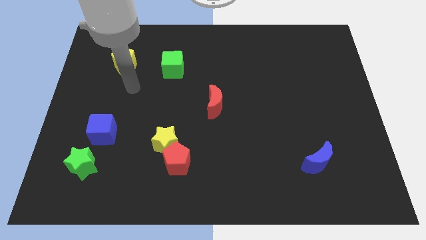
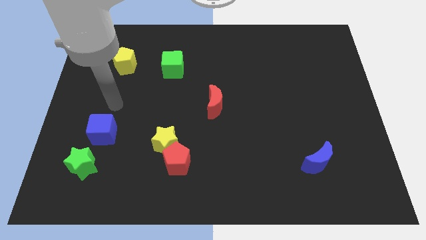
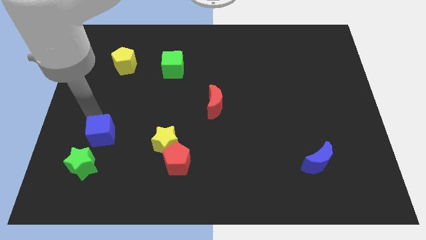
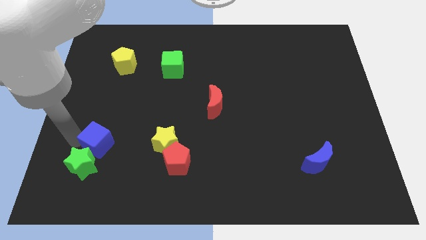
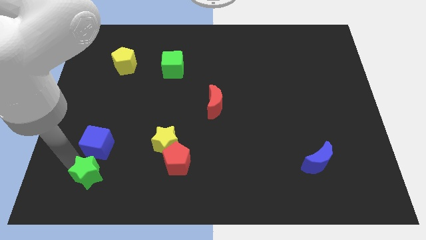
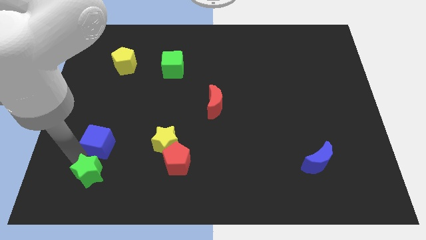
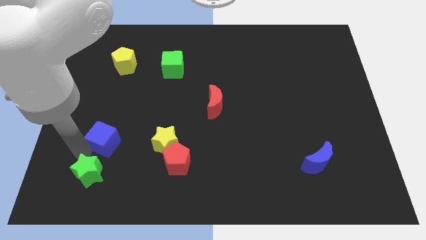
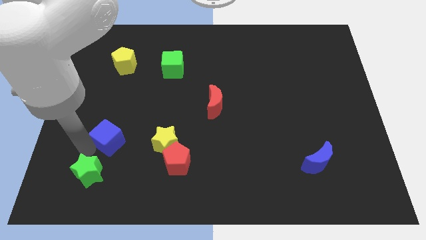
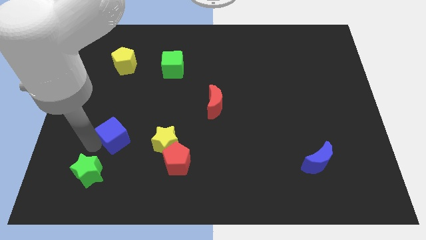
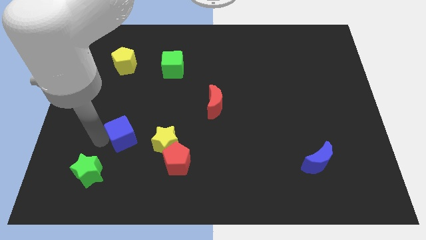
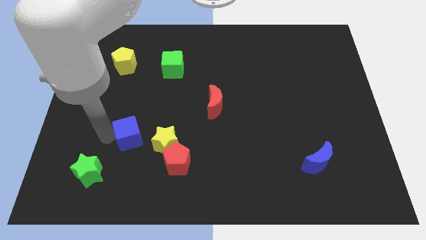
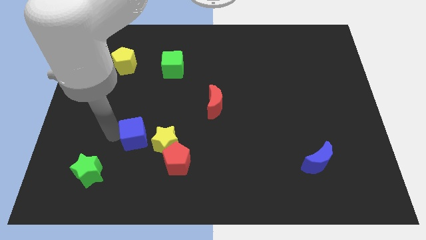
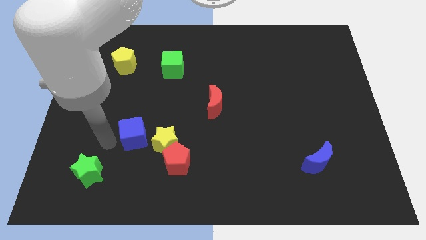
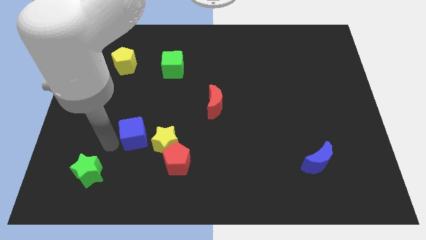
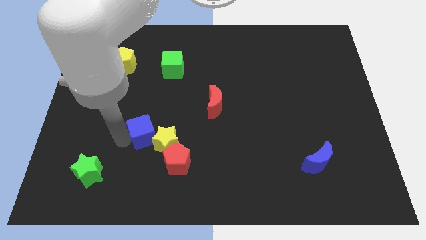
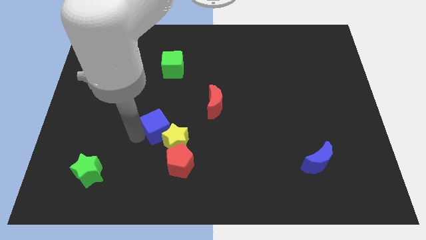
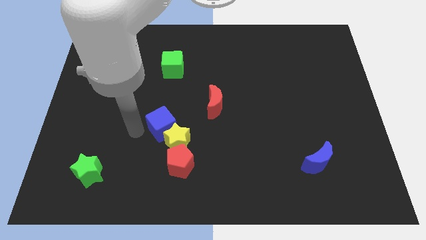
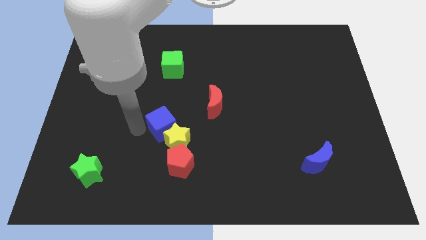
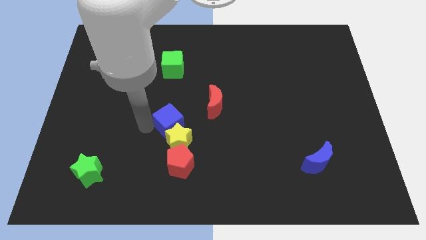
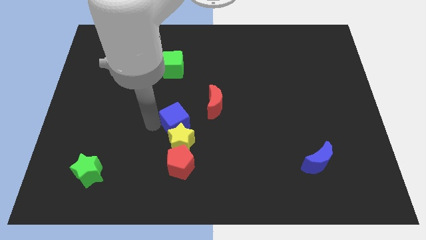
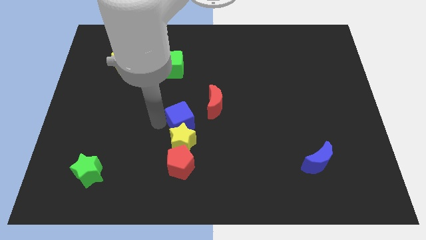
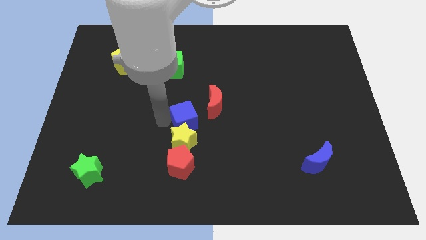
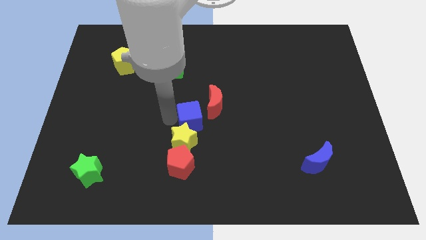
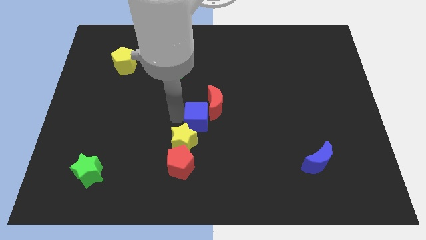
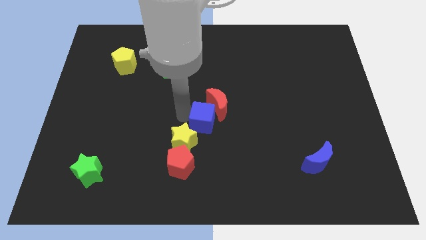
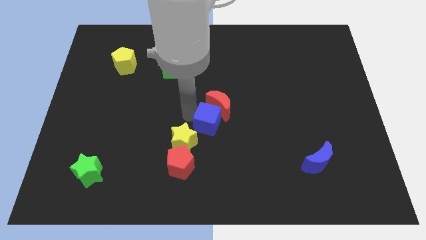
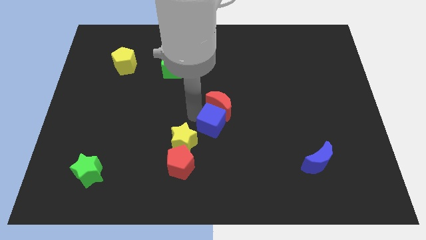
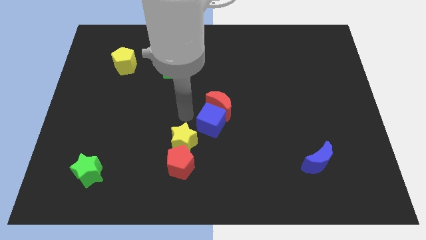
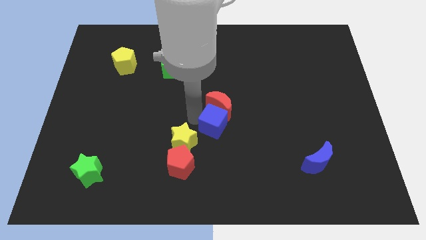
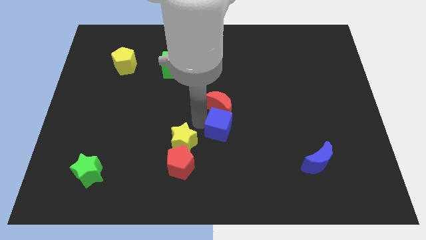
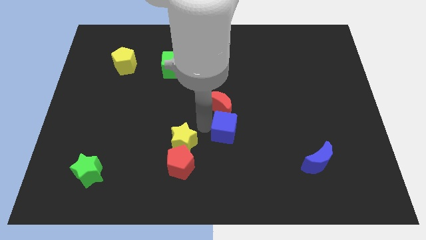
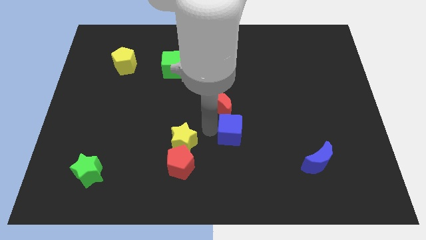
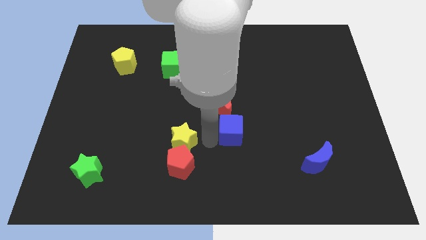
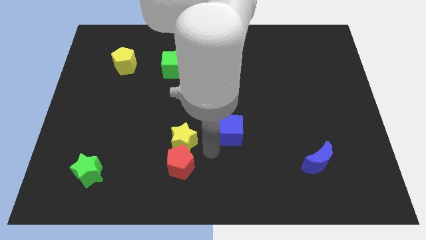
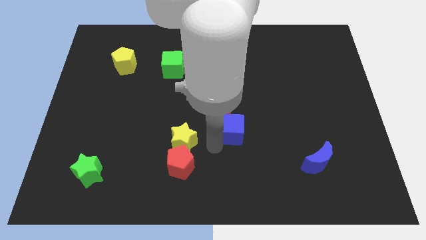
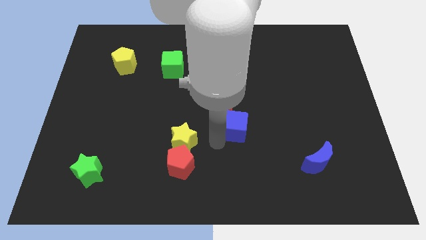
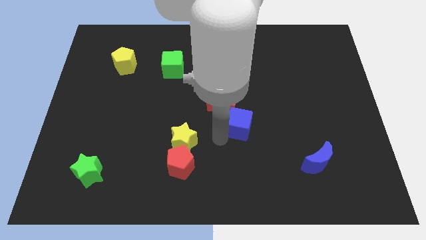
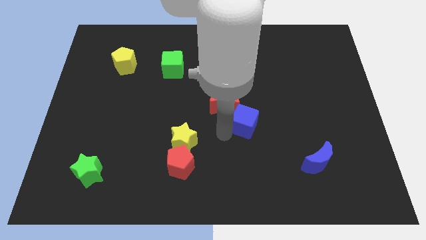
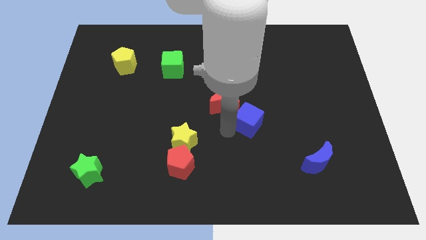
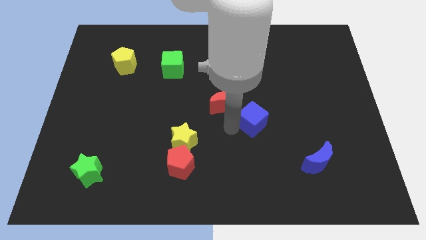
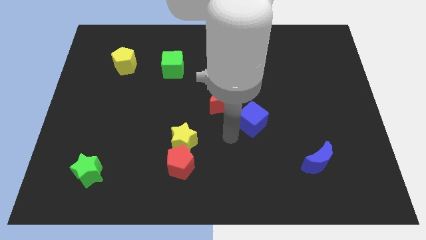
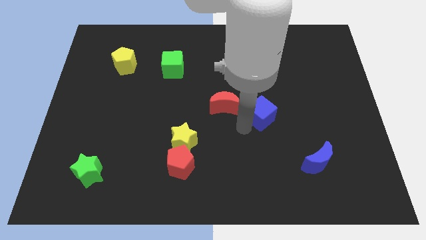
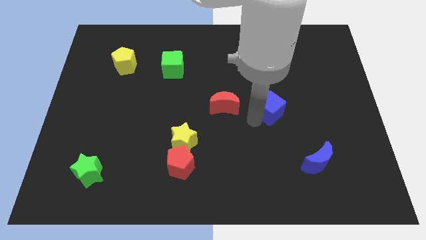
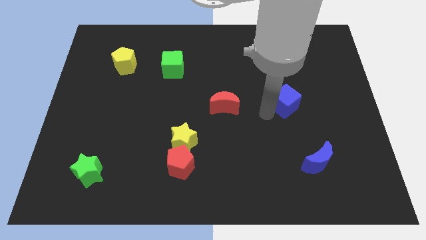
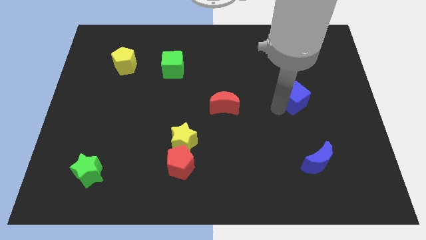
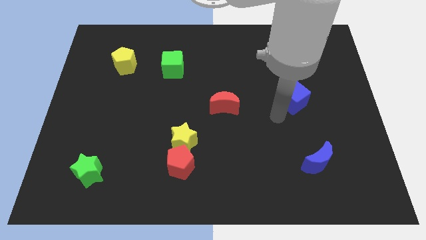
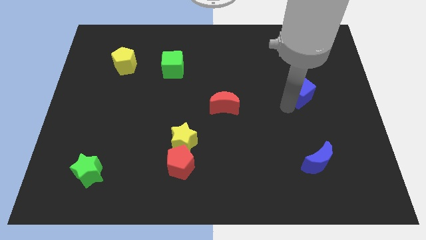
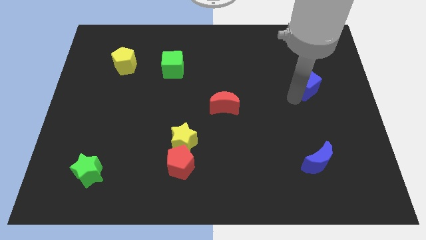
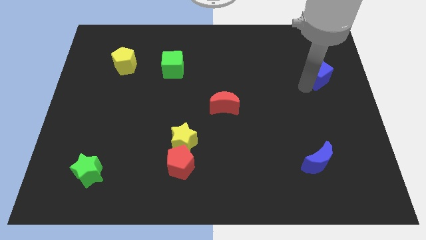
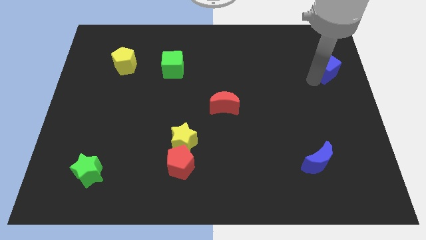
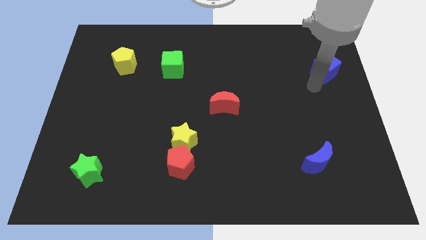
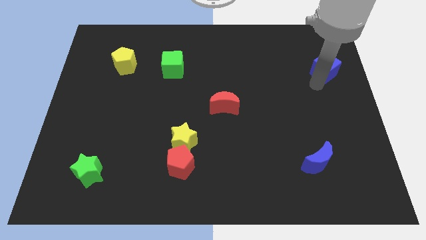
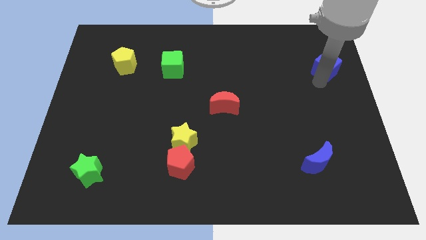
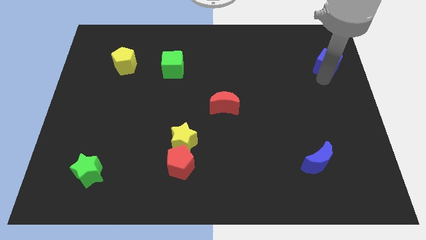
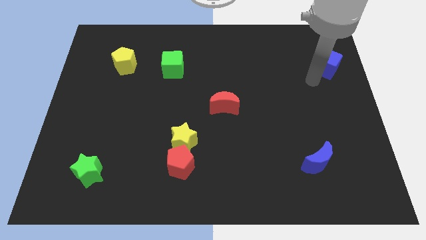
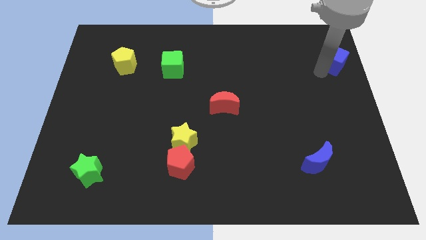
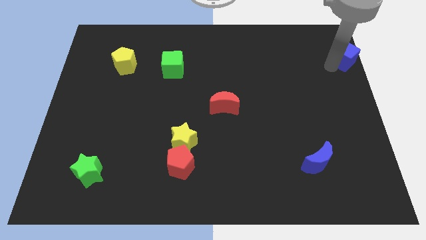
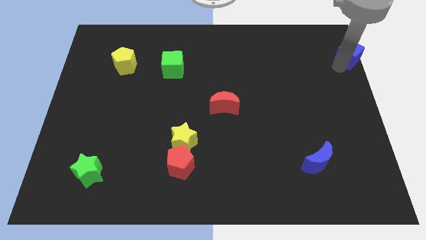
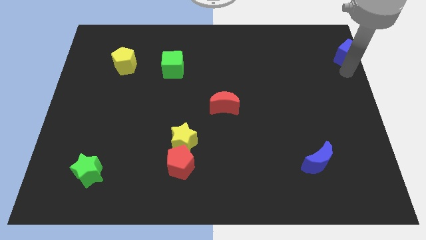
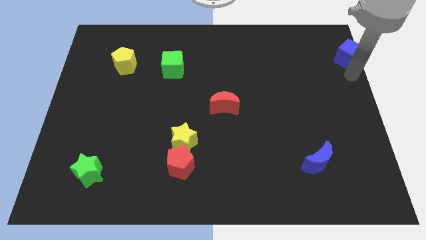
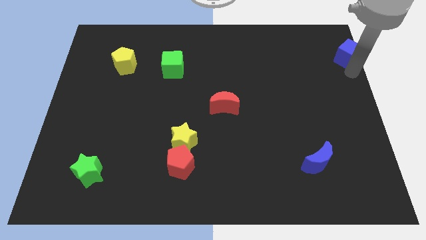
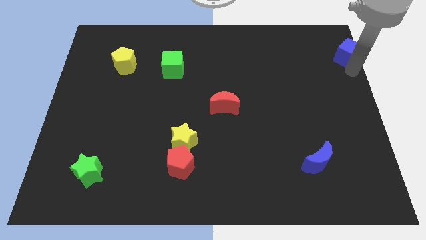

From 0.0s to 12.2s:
push the blue cube to the upper right corner

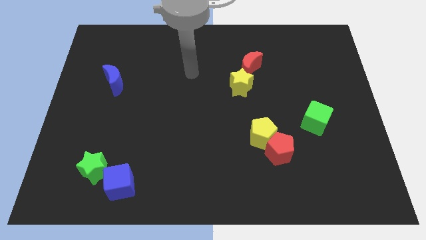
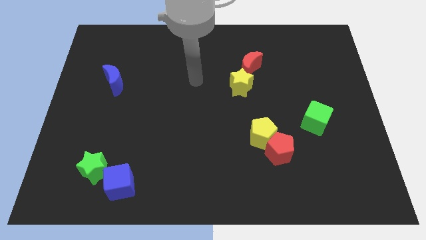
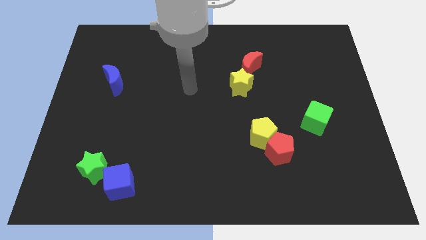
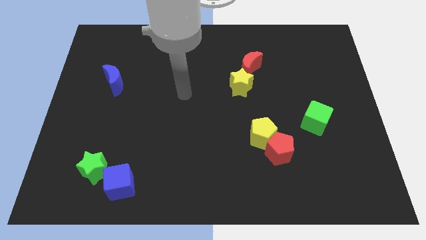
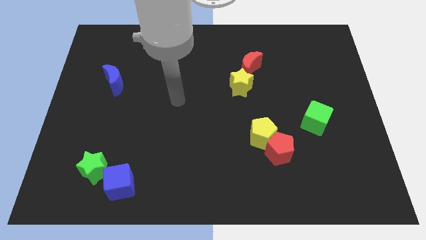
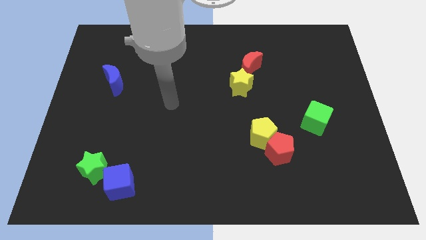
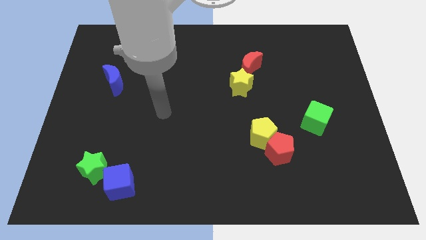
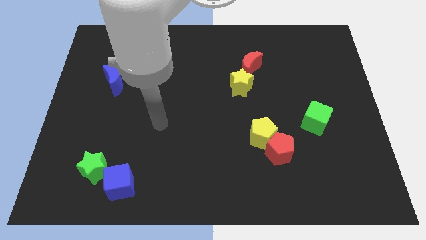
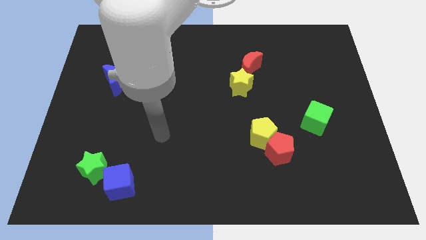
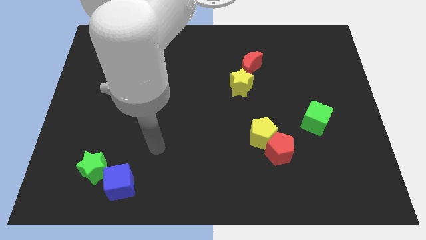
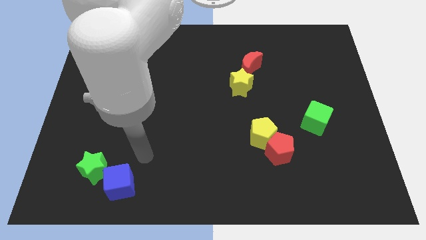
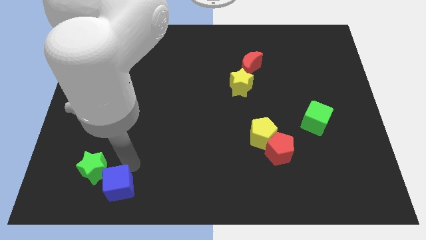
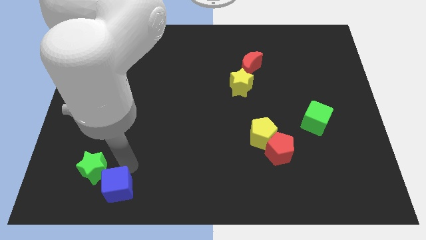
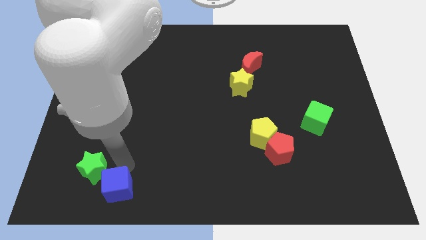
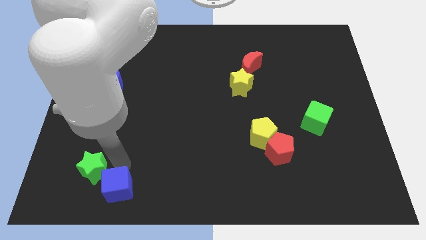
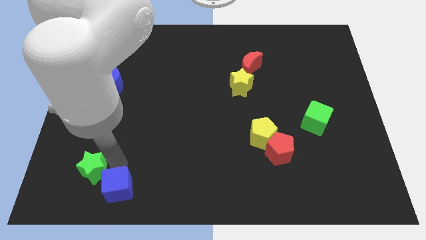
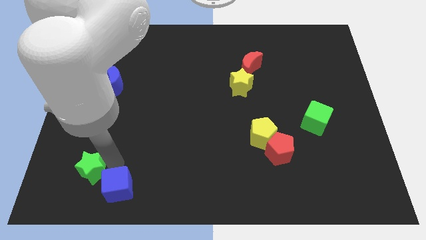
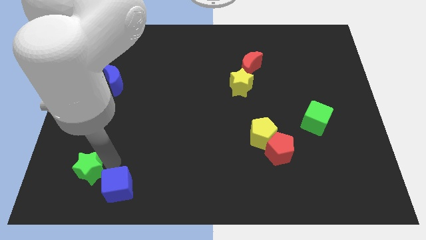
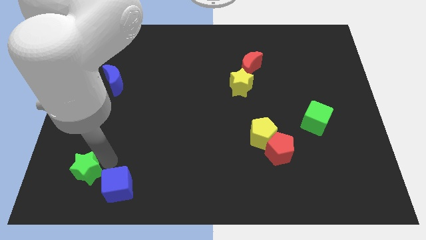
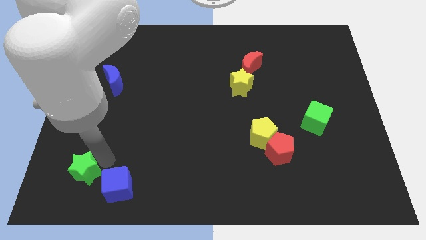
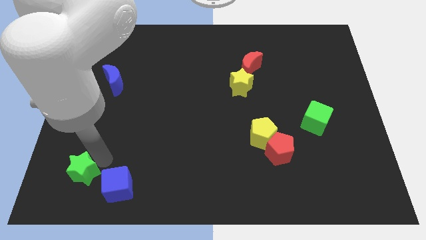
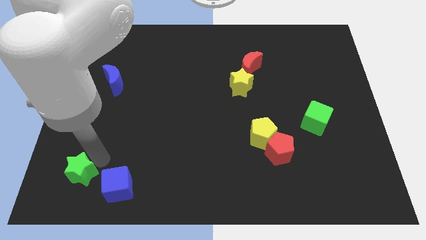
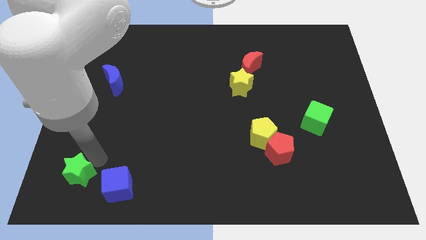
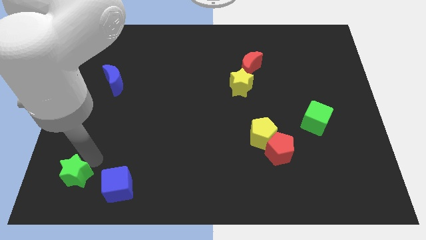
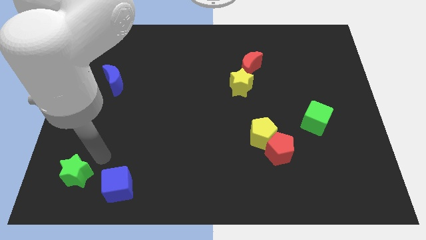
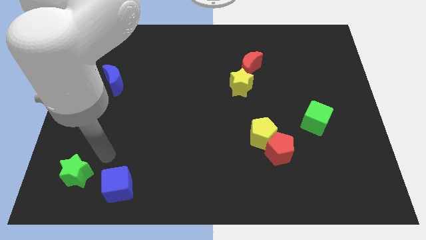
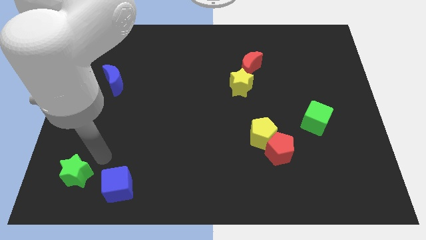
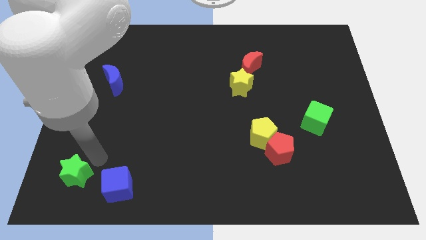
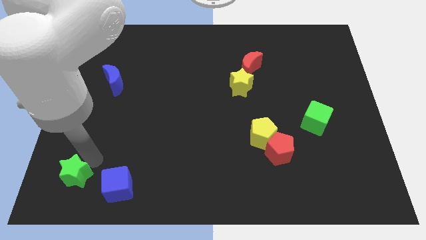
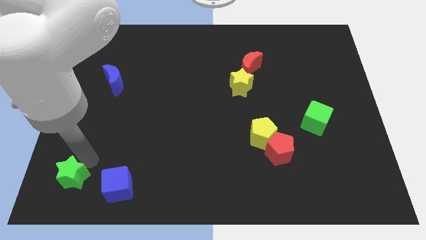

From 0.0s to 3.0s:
put the green star to the bottom left
